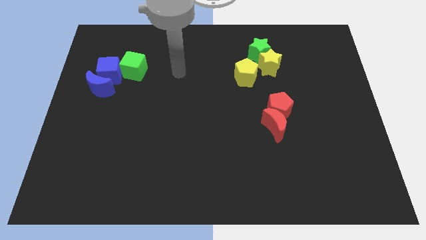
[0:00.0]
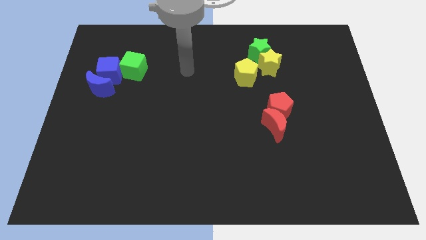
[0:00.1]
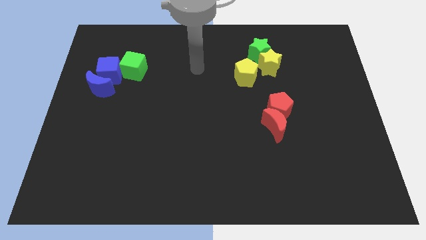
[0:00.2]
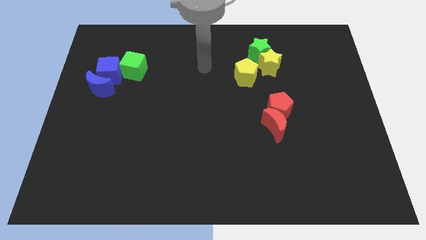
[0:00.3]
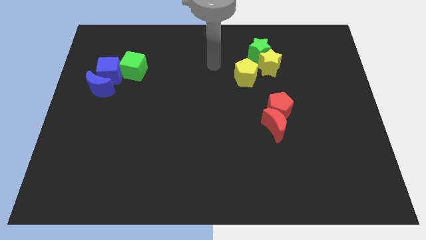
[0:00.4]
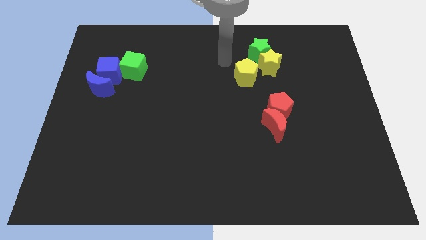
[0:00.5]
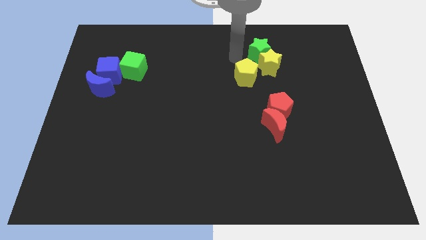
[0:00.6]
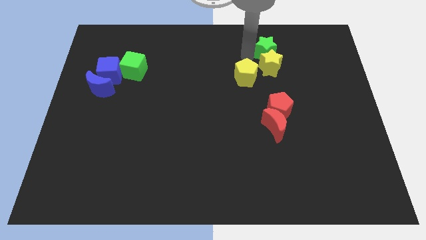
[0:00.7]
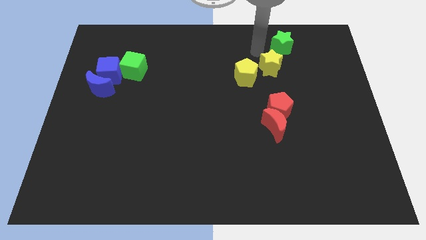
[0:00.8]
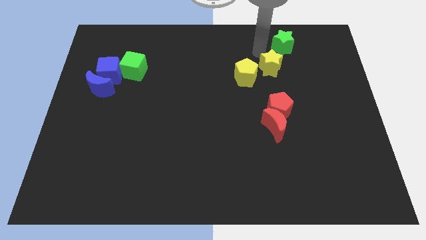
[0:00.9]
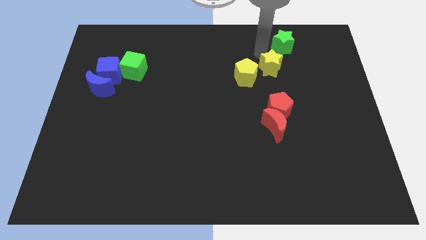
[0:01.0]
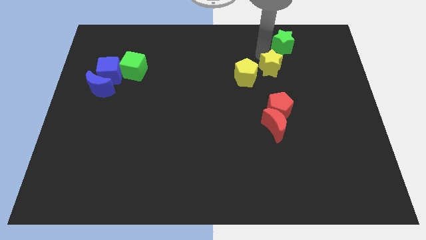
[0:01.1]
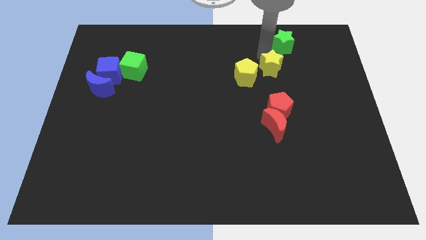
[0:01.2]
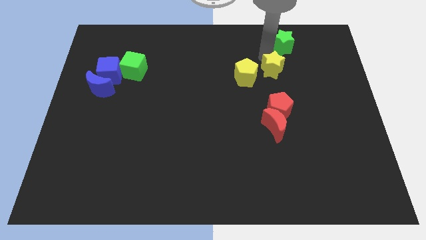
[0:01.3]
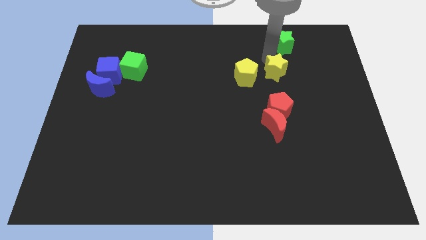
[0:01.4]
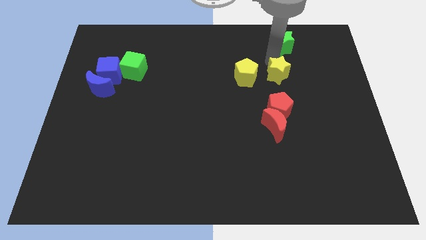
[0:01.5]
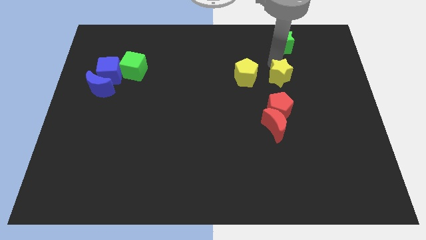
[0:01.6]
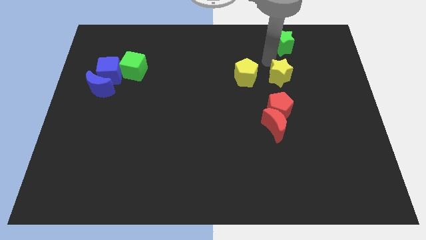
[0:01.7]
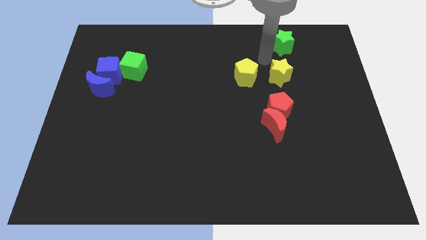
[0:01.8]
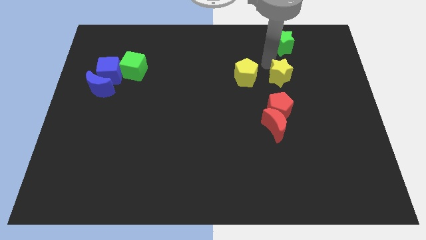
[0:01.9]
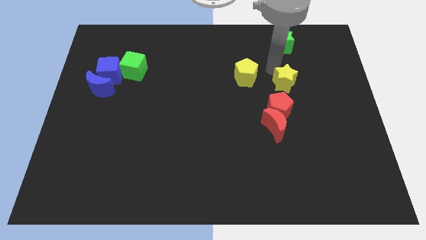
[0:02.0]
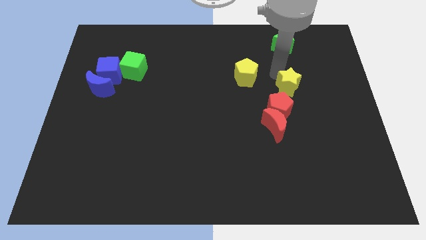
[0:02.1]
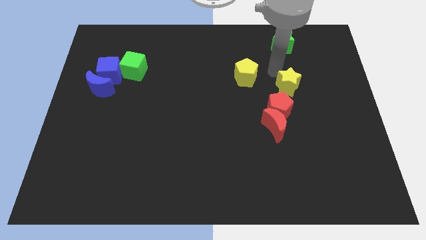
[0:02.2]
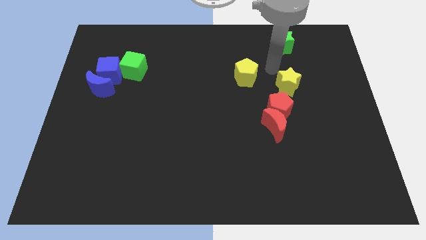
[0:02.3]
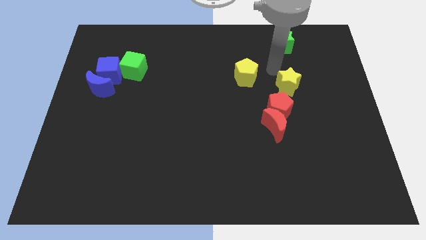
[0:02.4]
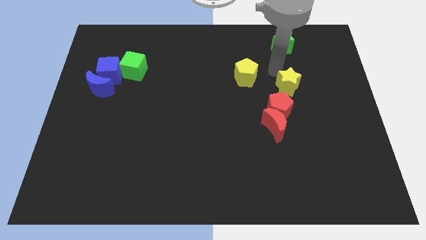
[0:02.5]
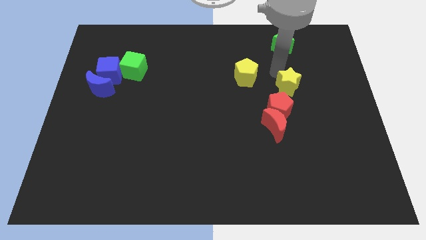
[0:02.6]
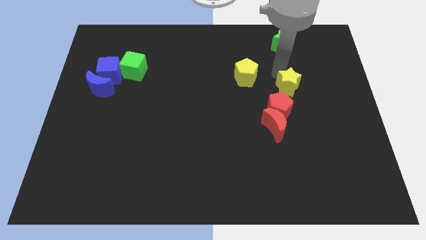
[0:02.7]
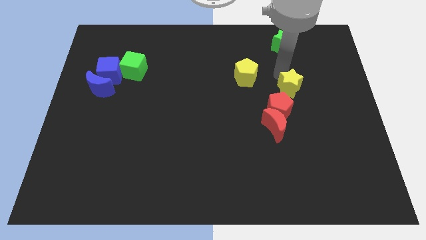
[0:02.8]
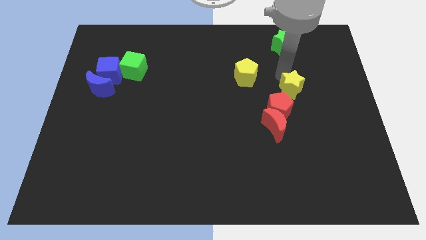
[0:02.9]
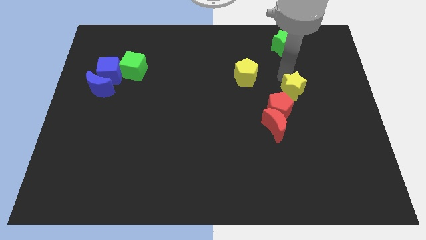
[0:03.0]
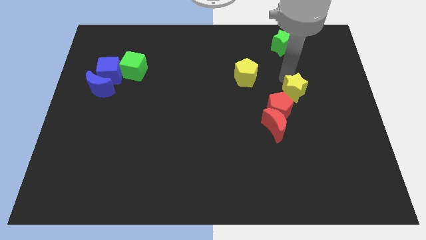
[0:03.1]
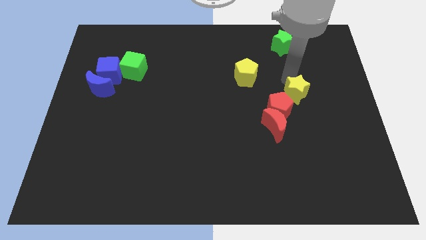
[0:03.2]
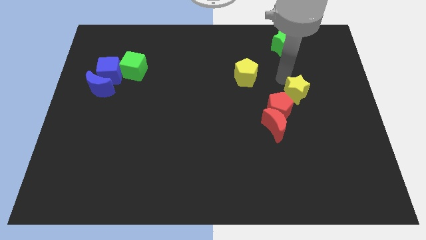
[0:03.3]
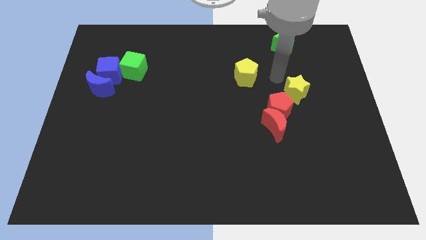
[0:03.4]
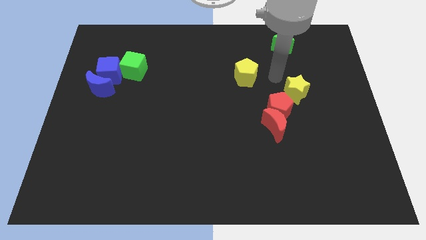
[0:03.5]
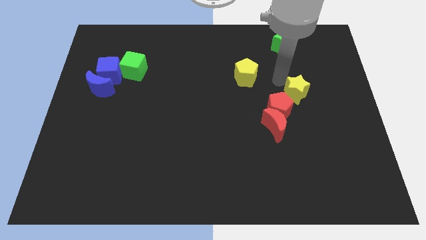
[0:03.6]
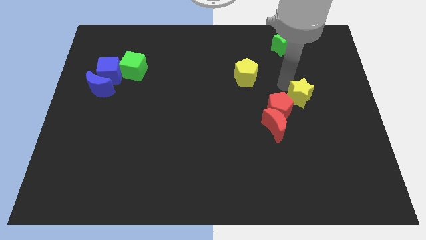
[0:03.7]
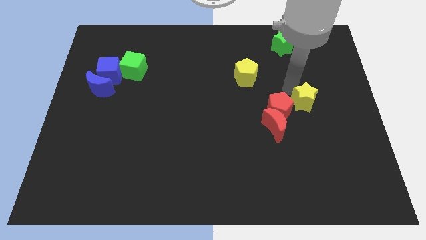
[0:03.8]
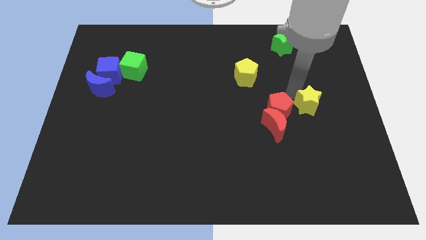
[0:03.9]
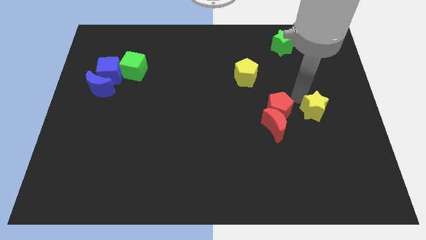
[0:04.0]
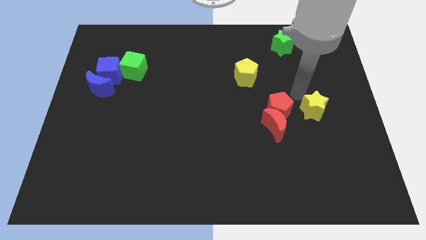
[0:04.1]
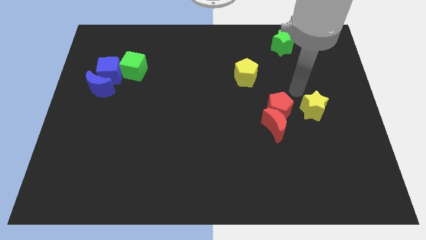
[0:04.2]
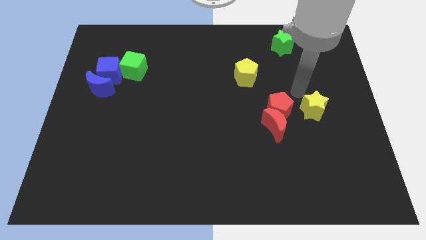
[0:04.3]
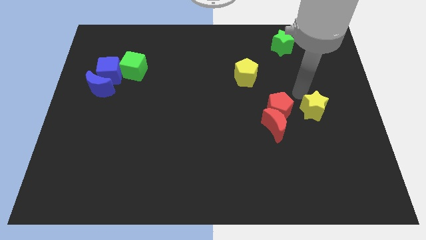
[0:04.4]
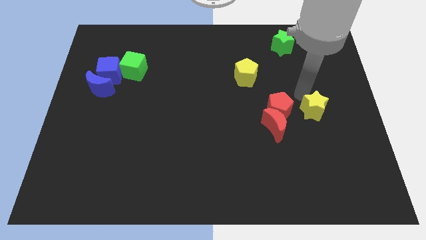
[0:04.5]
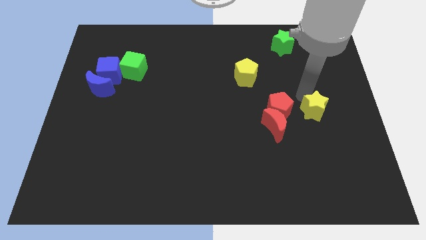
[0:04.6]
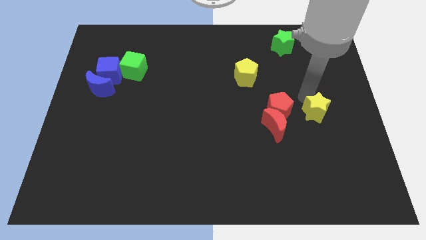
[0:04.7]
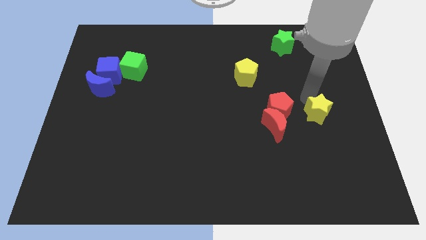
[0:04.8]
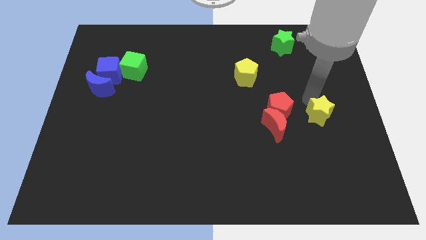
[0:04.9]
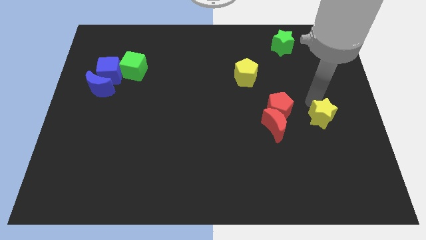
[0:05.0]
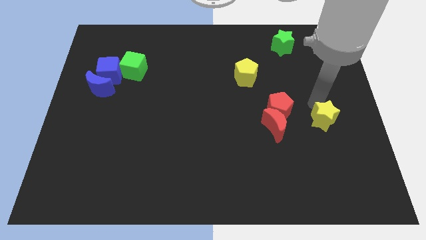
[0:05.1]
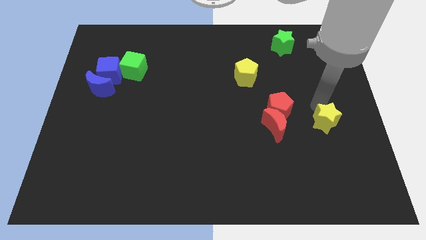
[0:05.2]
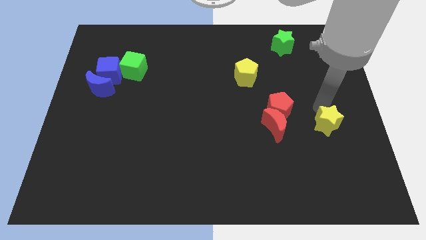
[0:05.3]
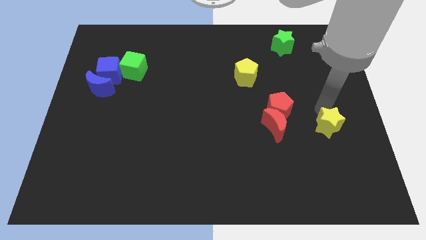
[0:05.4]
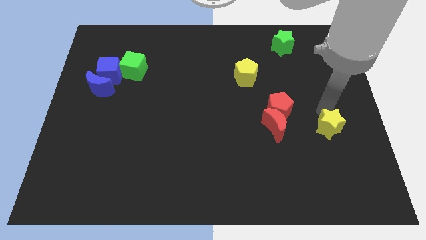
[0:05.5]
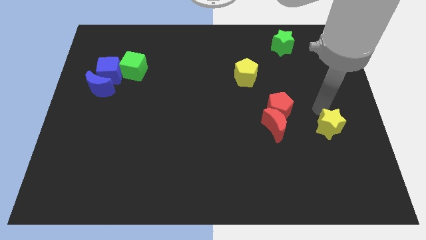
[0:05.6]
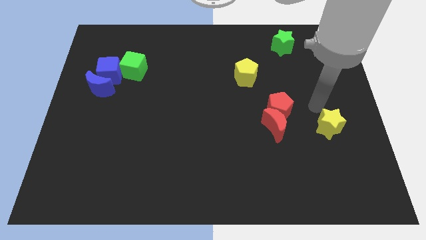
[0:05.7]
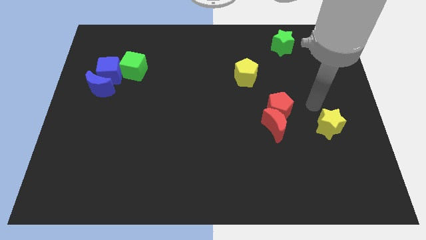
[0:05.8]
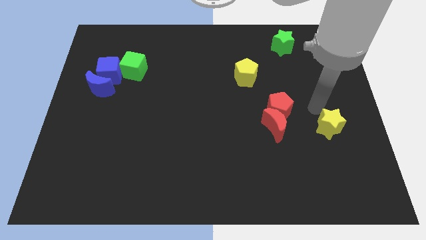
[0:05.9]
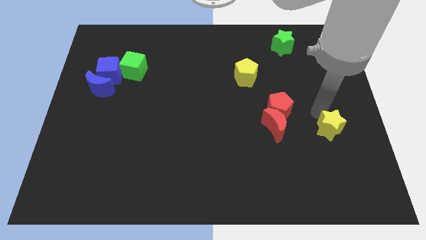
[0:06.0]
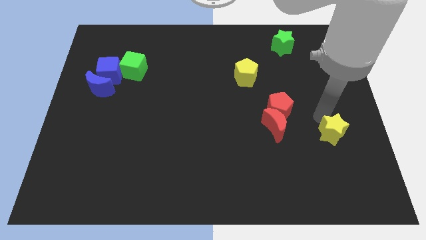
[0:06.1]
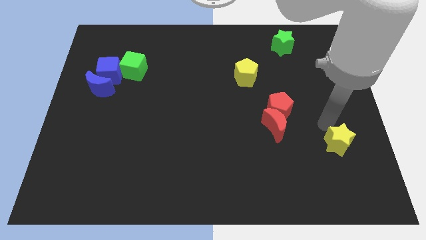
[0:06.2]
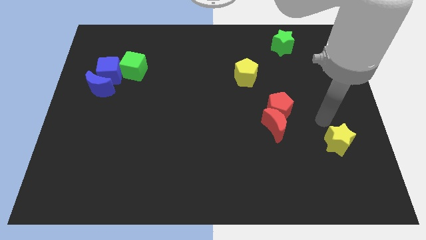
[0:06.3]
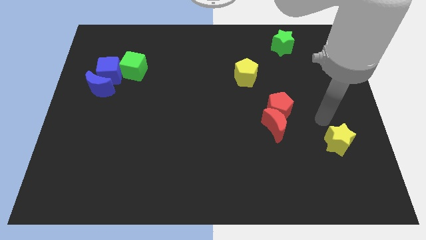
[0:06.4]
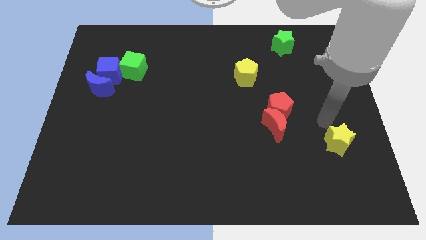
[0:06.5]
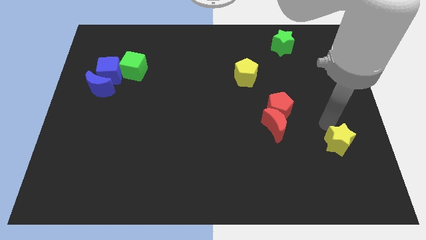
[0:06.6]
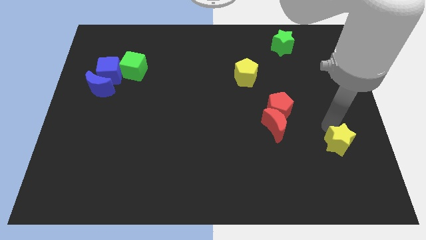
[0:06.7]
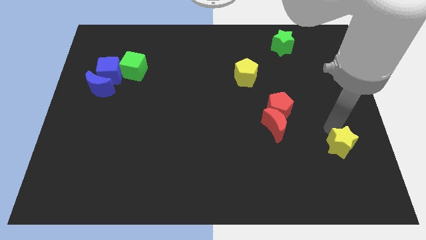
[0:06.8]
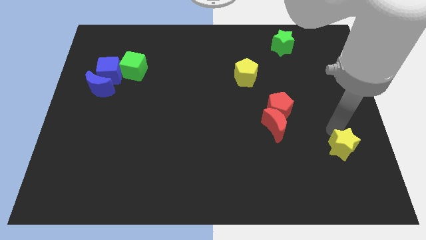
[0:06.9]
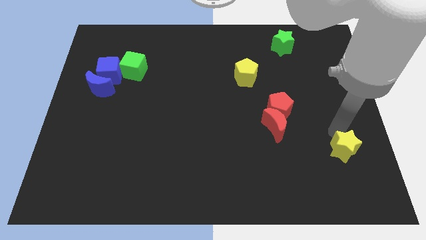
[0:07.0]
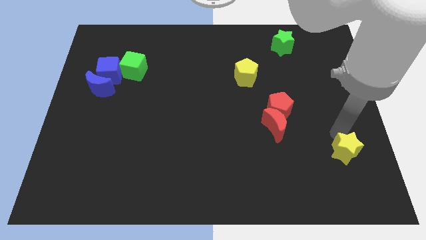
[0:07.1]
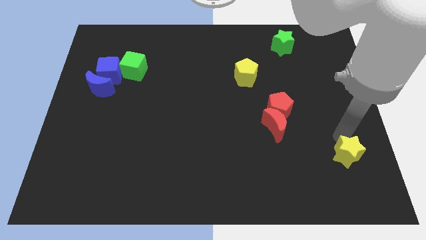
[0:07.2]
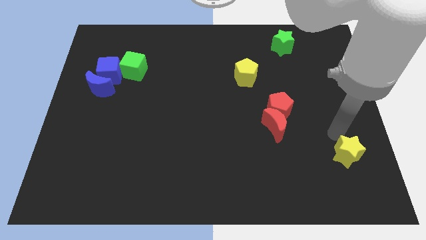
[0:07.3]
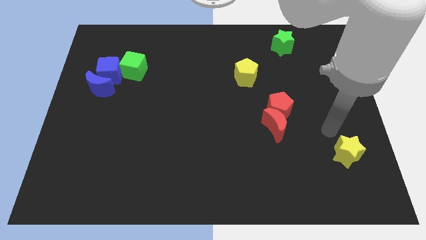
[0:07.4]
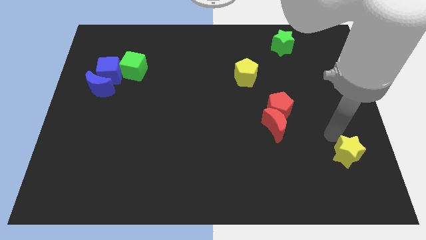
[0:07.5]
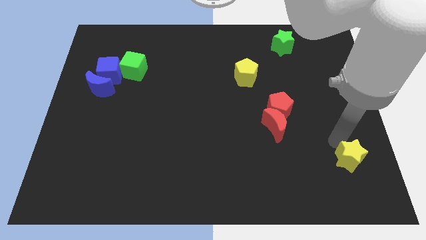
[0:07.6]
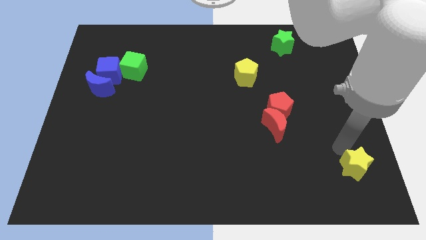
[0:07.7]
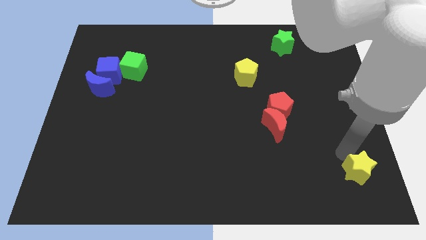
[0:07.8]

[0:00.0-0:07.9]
push the yellow star to the bottom right corner
